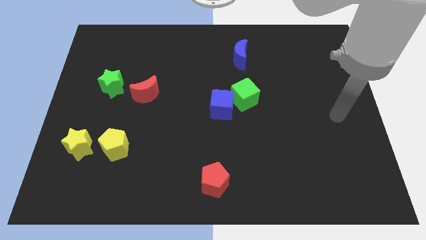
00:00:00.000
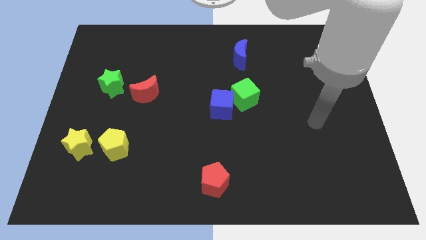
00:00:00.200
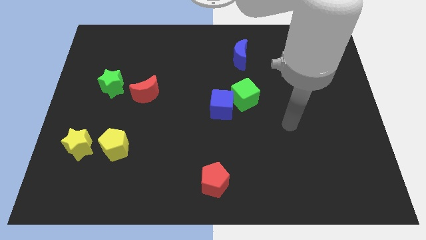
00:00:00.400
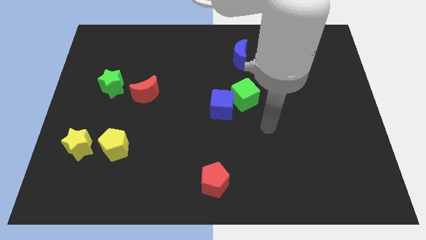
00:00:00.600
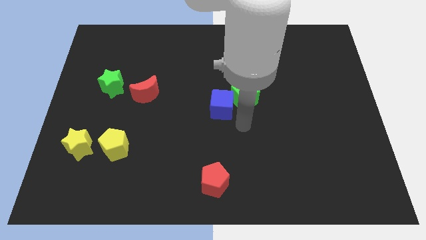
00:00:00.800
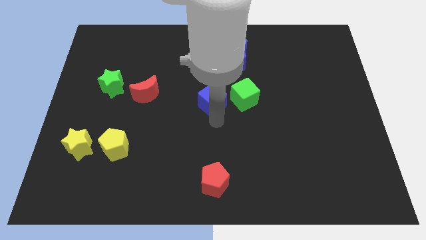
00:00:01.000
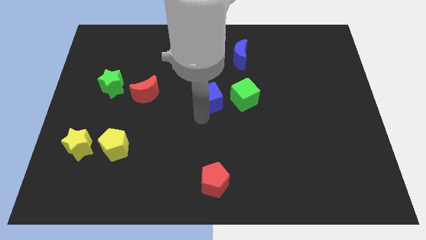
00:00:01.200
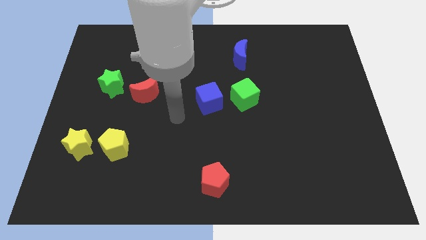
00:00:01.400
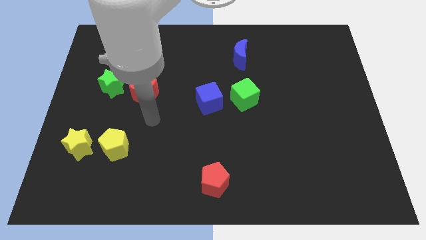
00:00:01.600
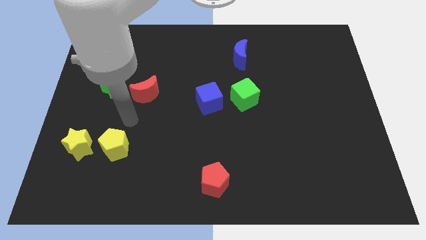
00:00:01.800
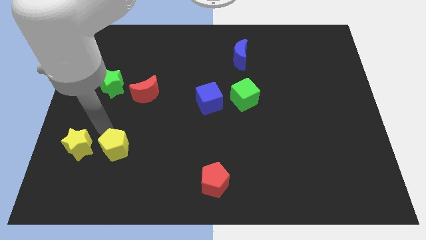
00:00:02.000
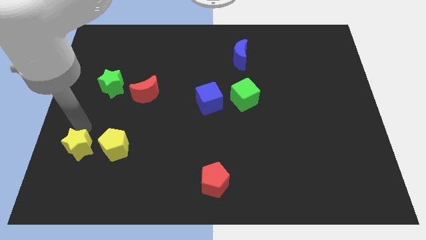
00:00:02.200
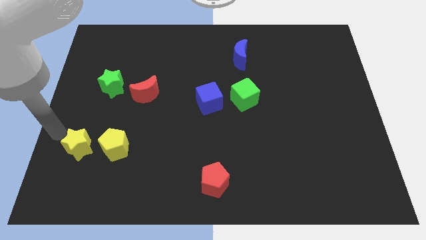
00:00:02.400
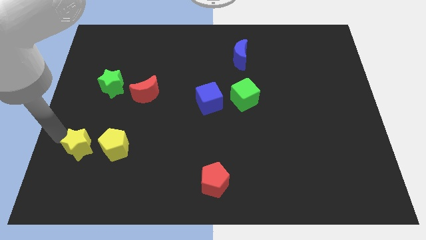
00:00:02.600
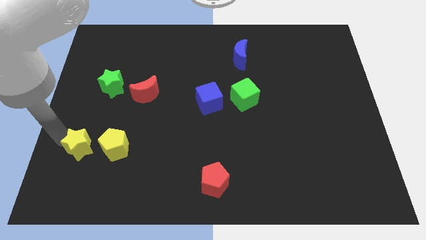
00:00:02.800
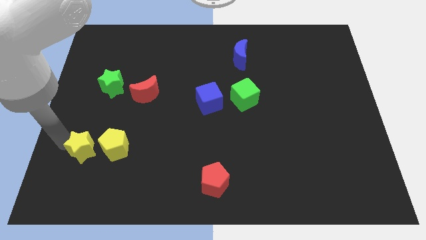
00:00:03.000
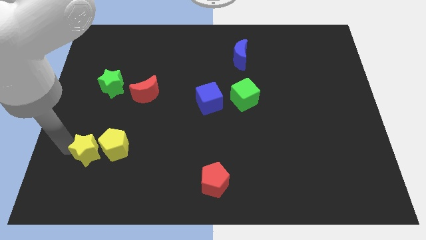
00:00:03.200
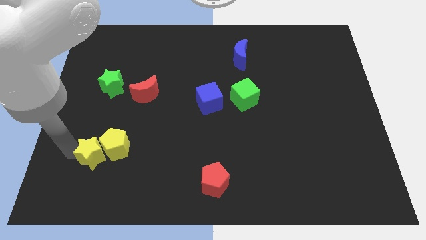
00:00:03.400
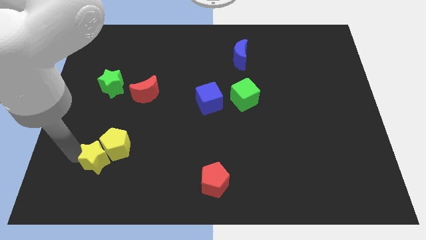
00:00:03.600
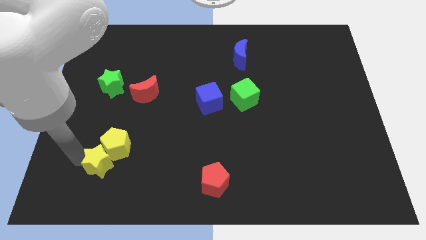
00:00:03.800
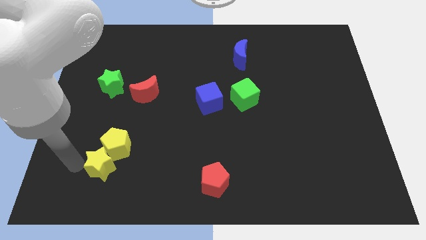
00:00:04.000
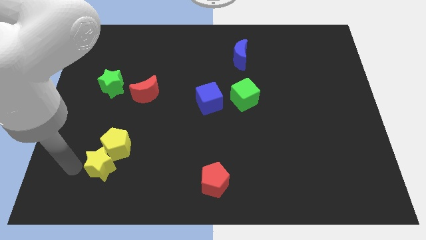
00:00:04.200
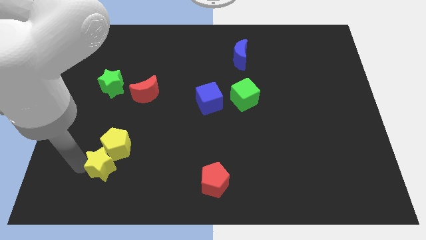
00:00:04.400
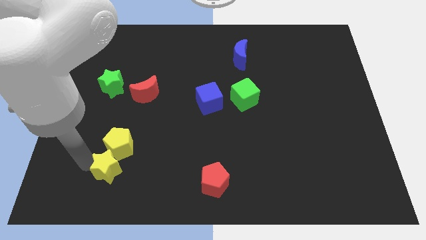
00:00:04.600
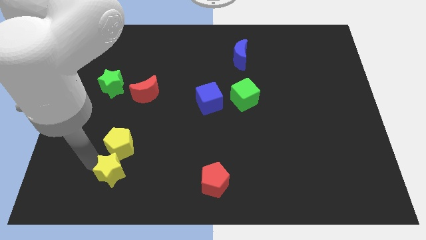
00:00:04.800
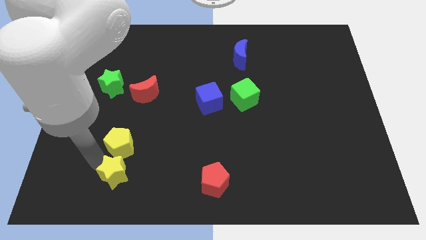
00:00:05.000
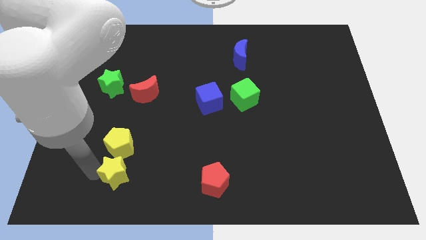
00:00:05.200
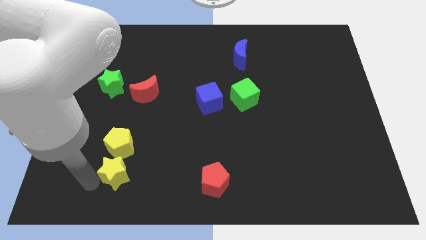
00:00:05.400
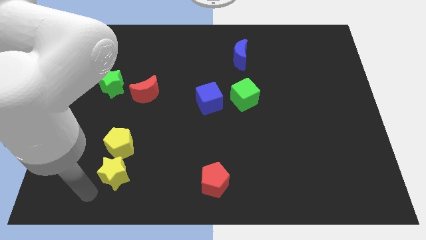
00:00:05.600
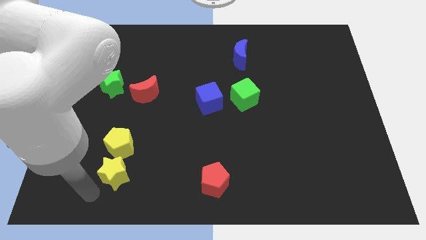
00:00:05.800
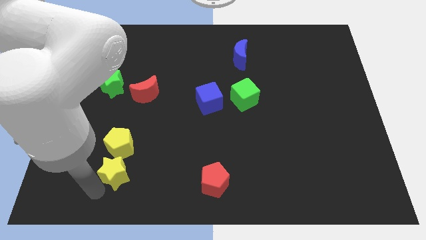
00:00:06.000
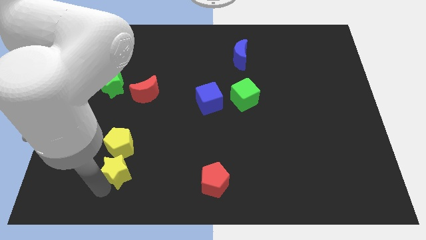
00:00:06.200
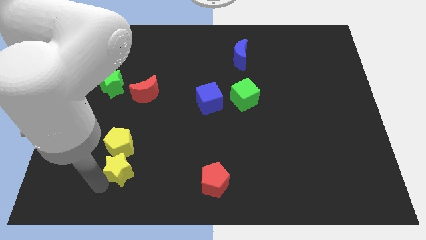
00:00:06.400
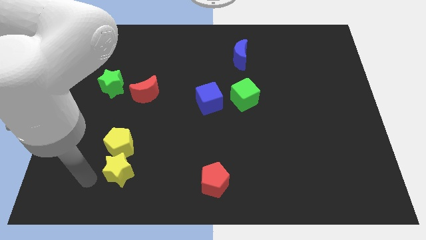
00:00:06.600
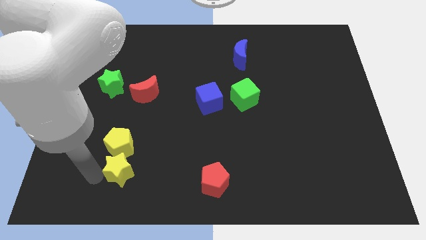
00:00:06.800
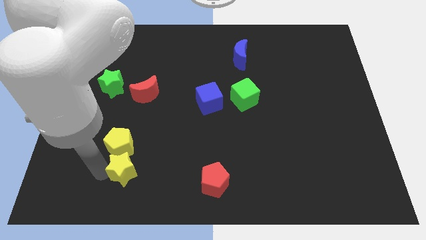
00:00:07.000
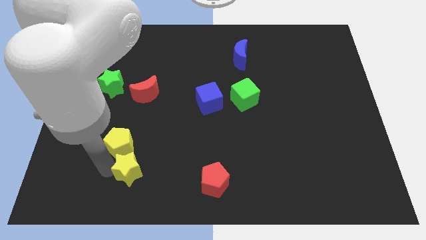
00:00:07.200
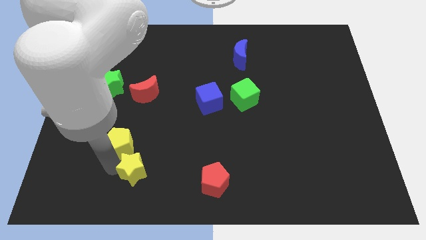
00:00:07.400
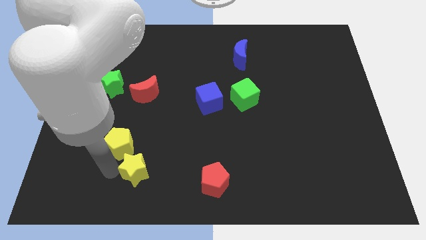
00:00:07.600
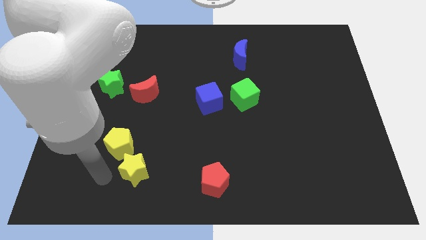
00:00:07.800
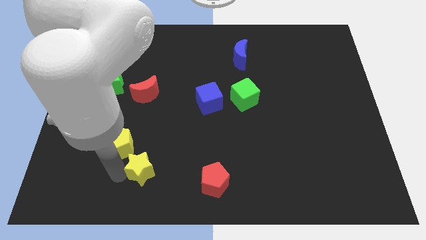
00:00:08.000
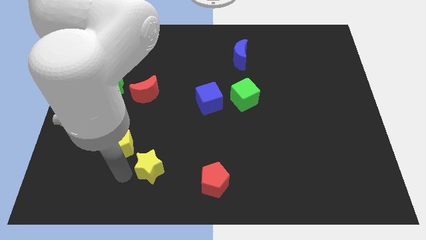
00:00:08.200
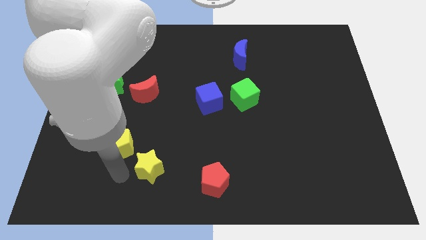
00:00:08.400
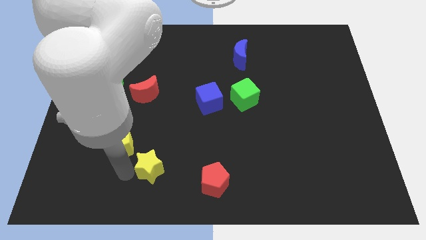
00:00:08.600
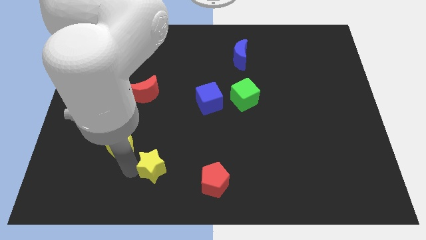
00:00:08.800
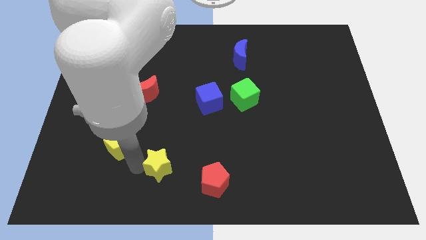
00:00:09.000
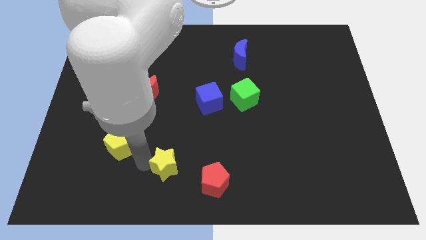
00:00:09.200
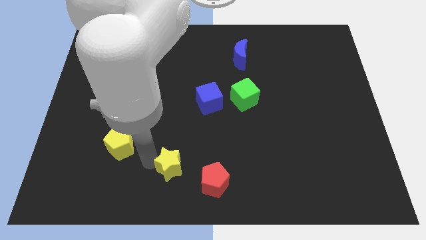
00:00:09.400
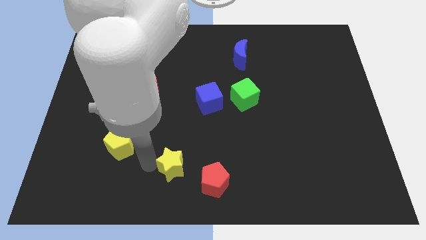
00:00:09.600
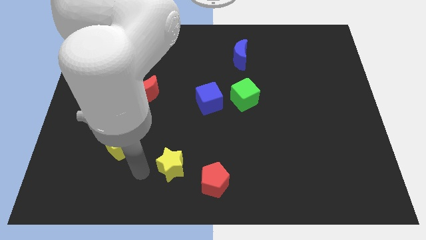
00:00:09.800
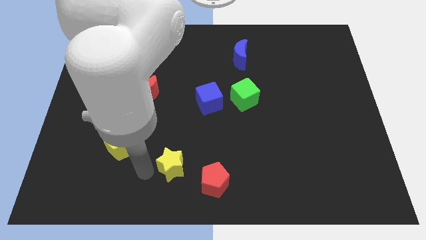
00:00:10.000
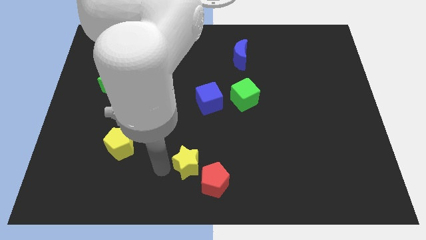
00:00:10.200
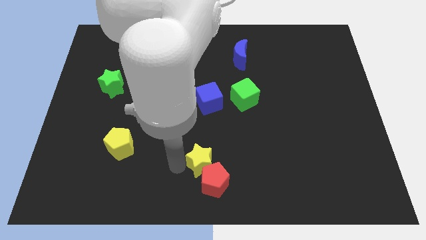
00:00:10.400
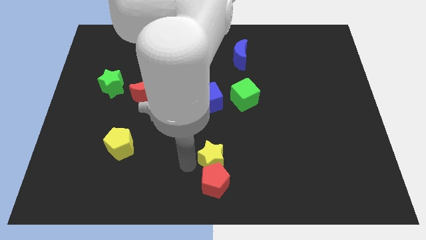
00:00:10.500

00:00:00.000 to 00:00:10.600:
slide the yellow star to the top right side of the red pentagon

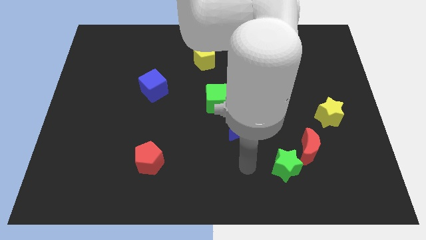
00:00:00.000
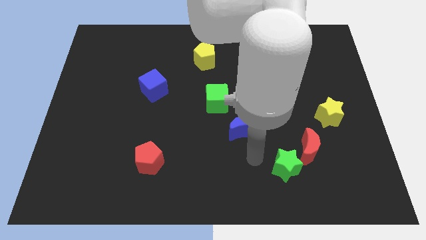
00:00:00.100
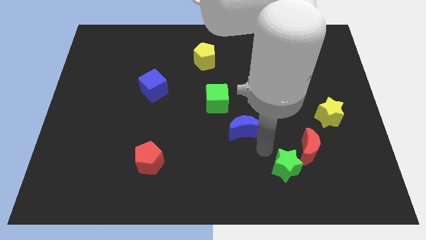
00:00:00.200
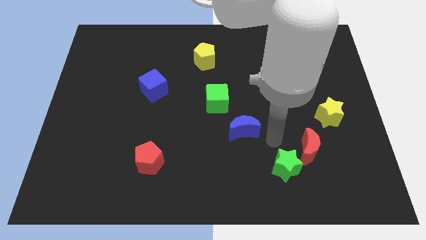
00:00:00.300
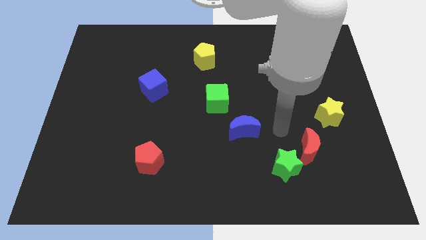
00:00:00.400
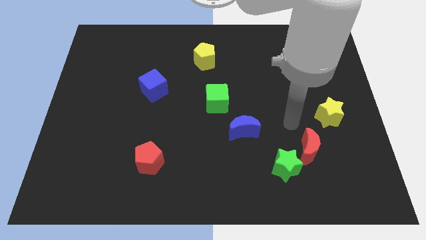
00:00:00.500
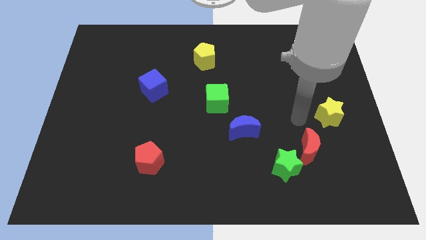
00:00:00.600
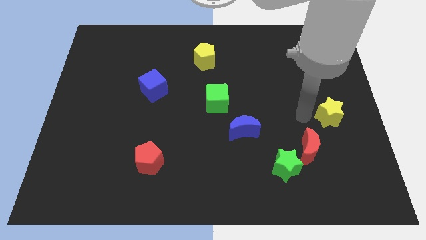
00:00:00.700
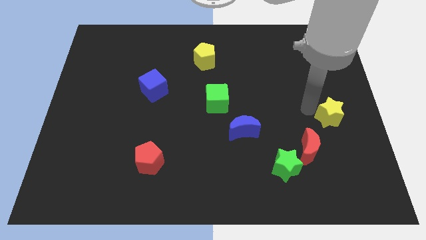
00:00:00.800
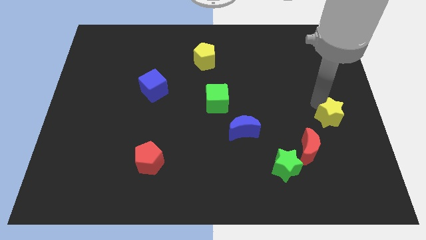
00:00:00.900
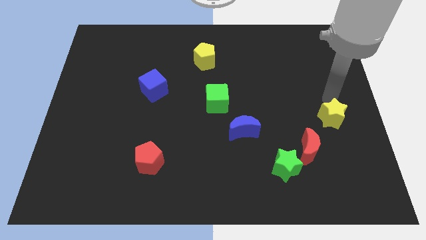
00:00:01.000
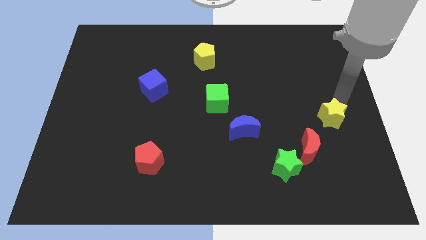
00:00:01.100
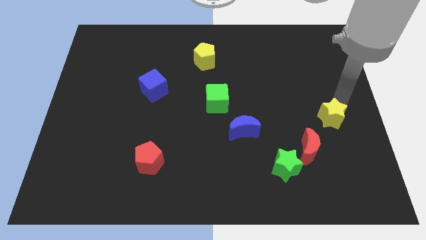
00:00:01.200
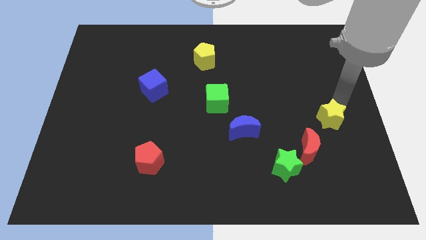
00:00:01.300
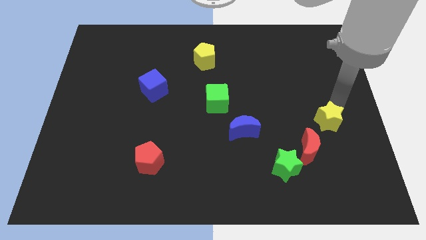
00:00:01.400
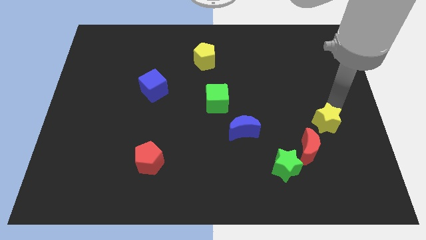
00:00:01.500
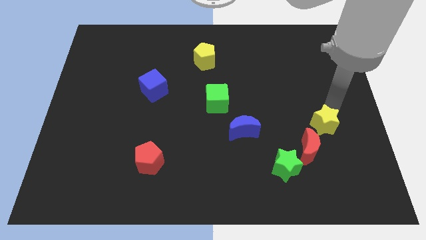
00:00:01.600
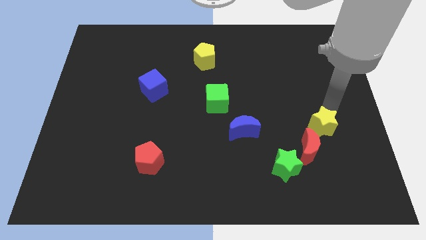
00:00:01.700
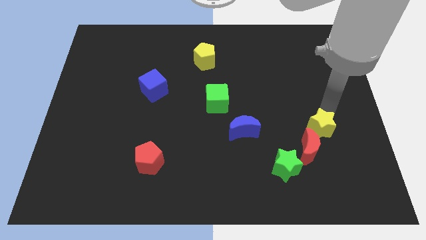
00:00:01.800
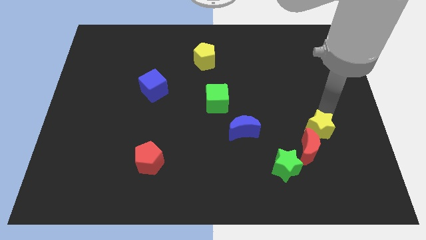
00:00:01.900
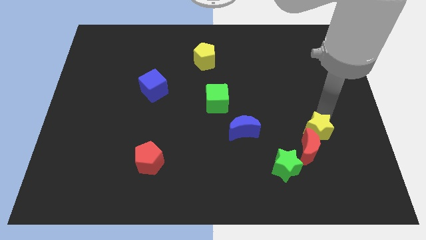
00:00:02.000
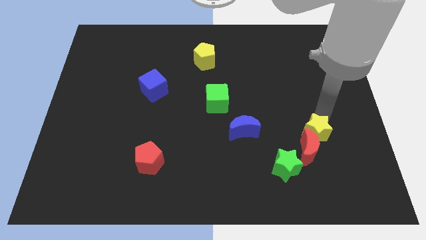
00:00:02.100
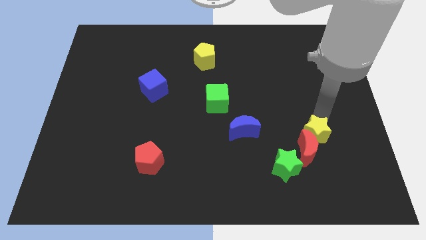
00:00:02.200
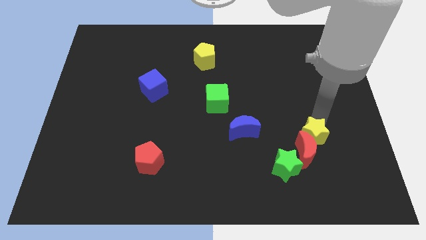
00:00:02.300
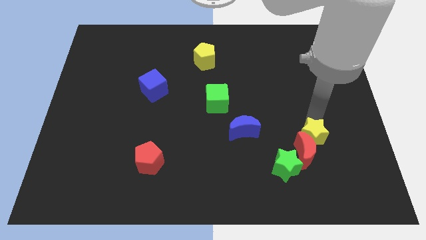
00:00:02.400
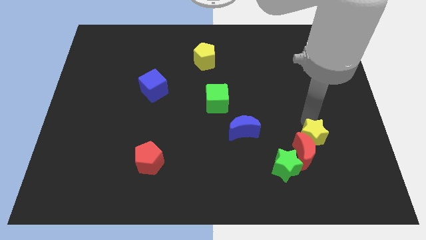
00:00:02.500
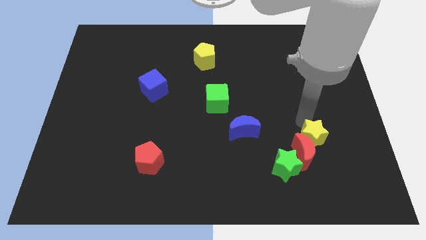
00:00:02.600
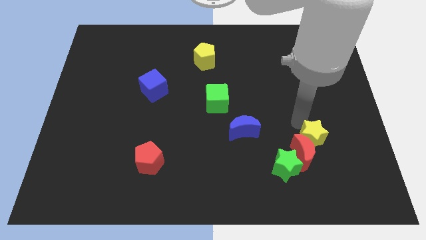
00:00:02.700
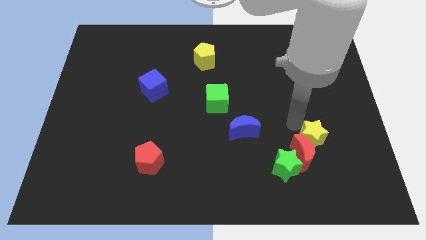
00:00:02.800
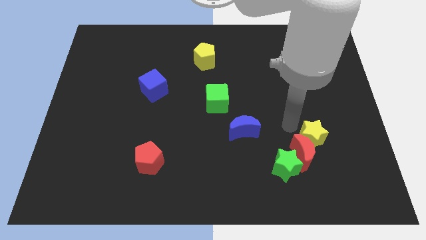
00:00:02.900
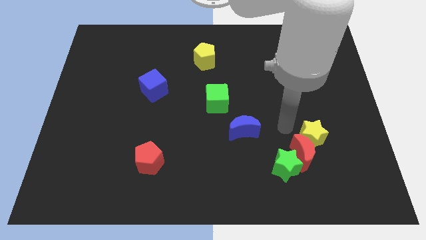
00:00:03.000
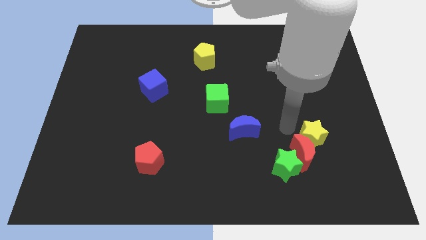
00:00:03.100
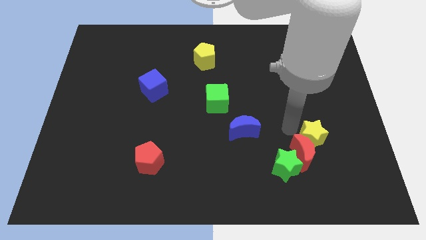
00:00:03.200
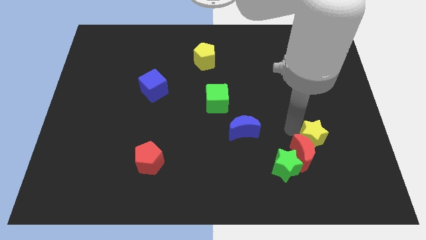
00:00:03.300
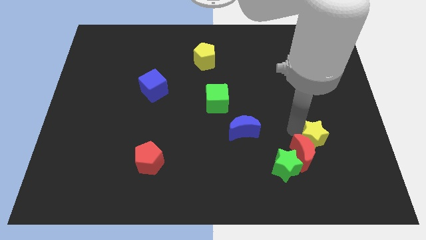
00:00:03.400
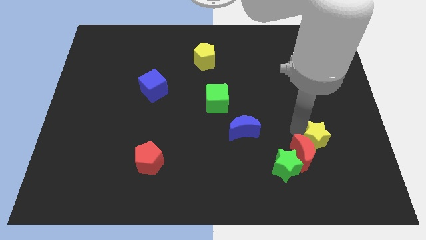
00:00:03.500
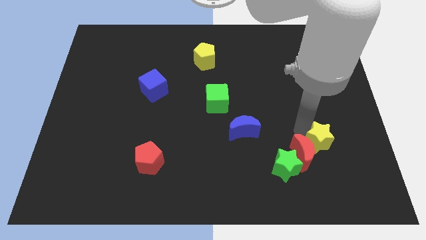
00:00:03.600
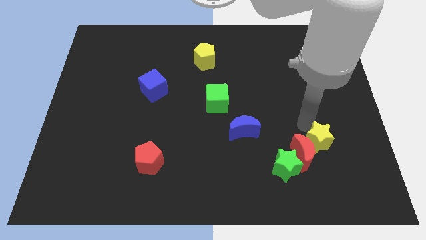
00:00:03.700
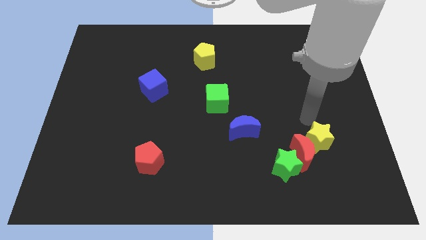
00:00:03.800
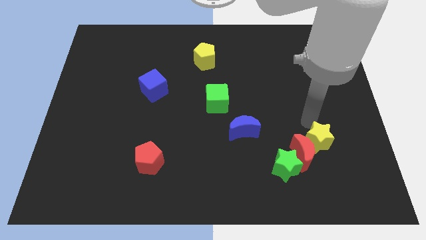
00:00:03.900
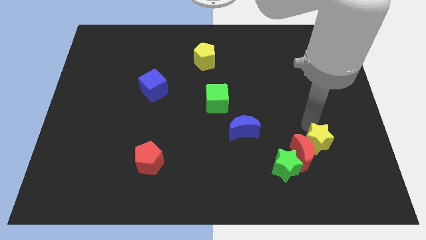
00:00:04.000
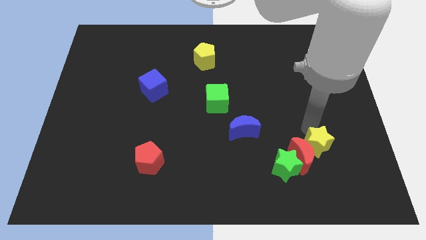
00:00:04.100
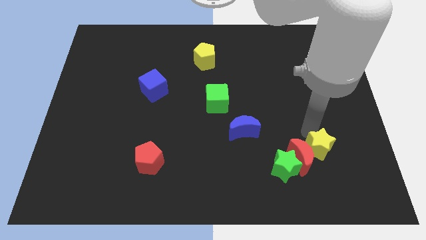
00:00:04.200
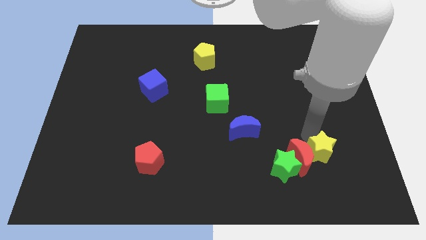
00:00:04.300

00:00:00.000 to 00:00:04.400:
slide the yellow star to the bottom right side of the red moon
